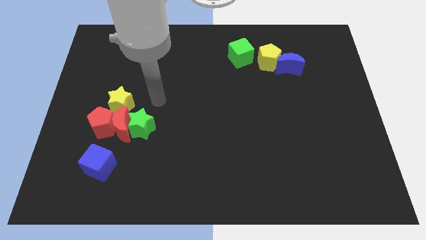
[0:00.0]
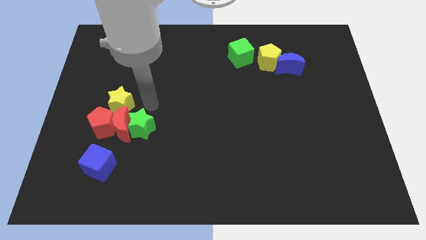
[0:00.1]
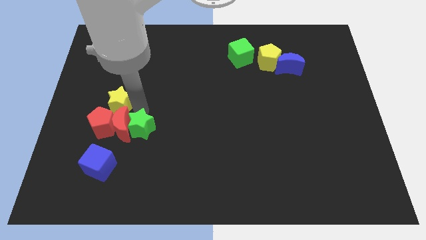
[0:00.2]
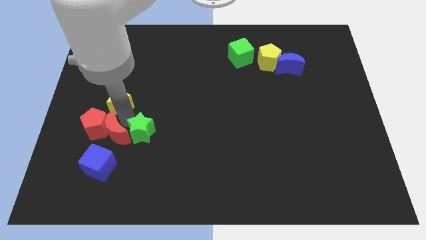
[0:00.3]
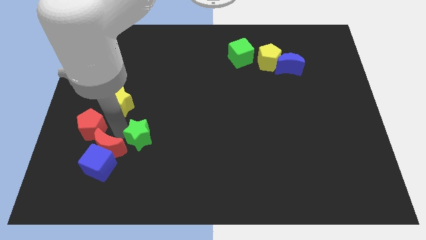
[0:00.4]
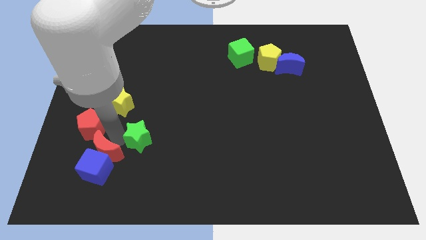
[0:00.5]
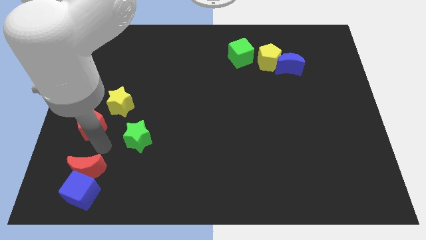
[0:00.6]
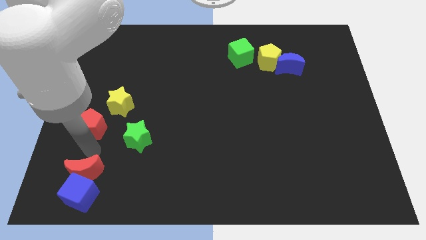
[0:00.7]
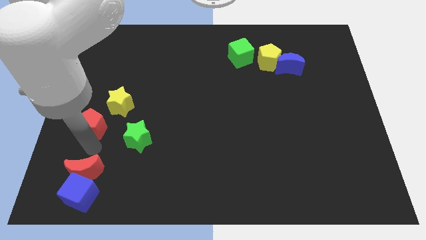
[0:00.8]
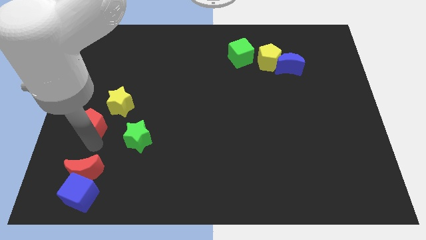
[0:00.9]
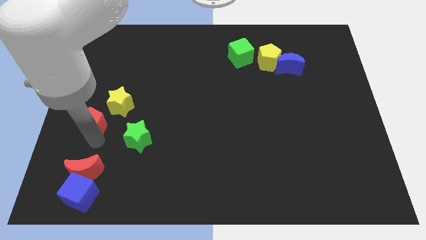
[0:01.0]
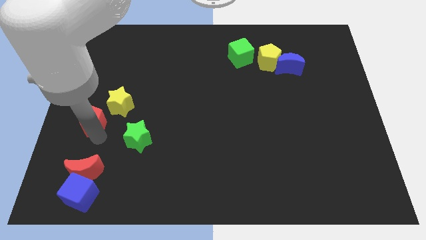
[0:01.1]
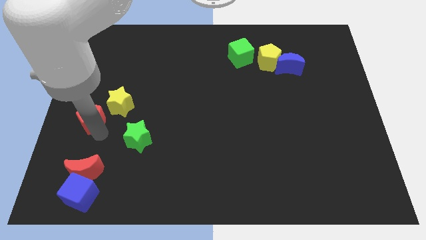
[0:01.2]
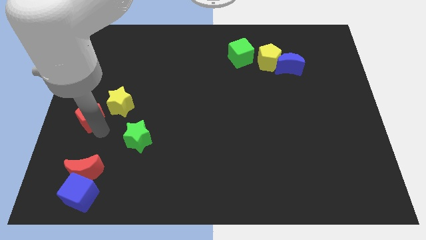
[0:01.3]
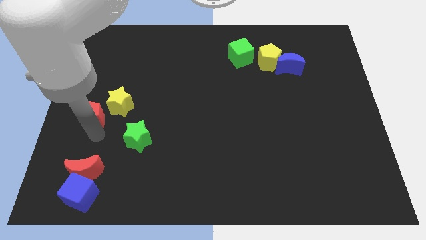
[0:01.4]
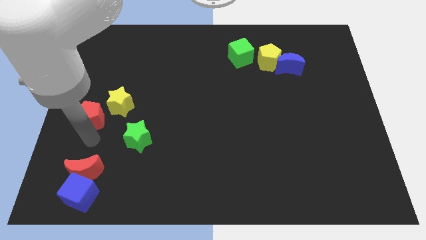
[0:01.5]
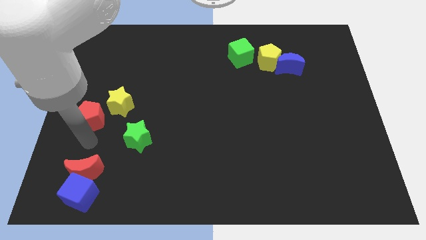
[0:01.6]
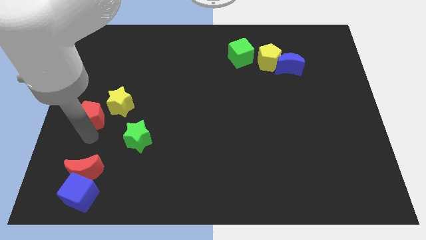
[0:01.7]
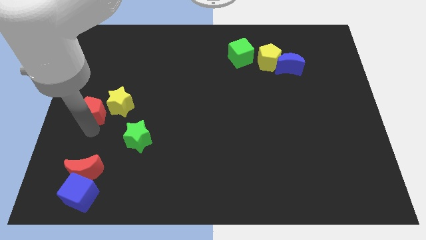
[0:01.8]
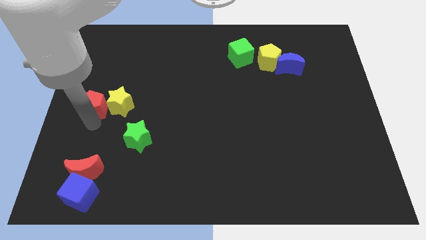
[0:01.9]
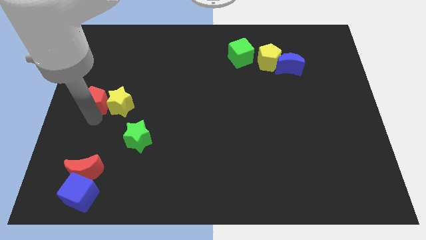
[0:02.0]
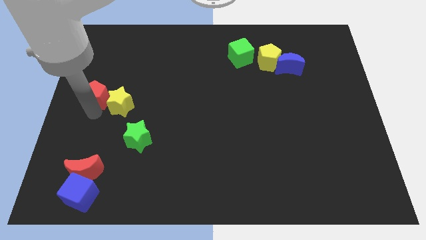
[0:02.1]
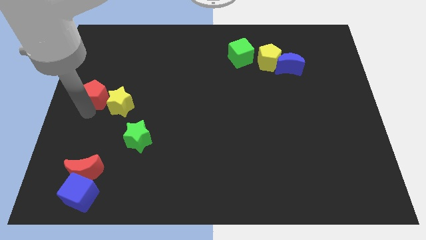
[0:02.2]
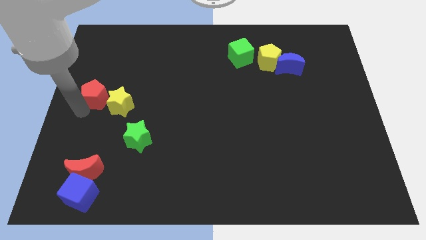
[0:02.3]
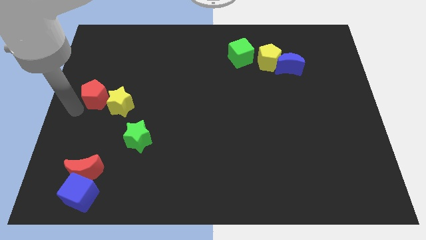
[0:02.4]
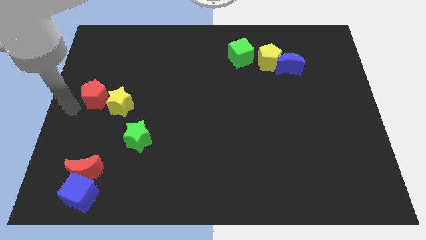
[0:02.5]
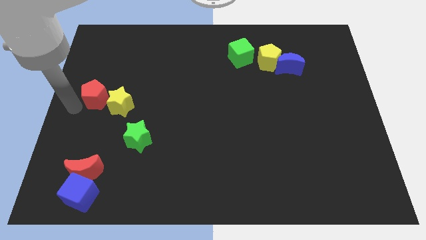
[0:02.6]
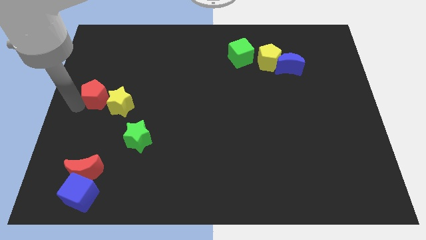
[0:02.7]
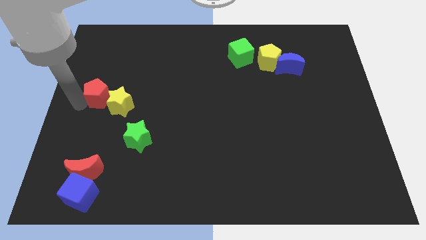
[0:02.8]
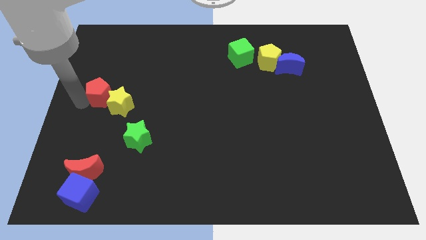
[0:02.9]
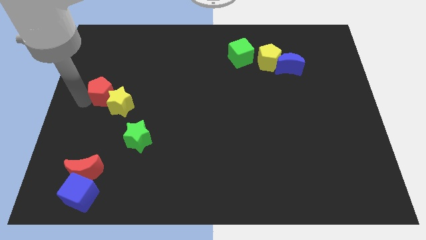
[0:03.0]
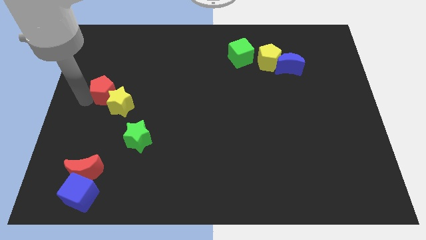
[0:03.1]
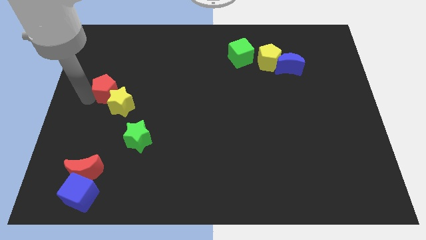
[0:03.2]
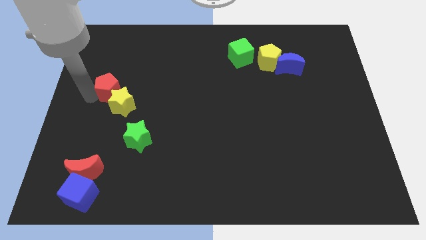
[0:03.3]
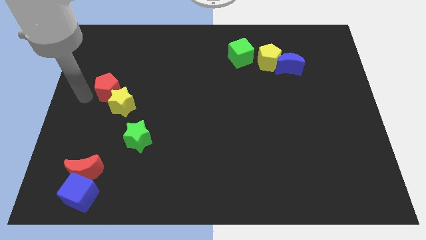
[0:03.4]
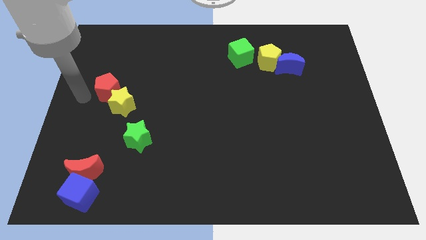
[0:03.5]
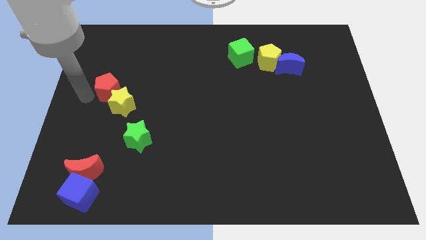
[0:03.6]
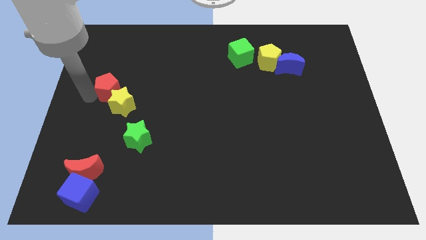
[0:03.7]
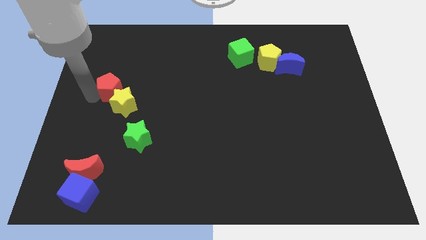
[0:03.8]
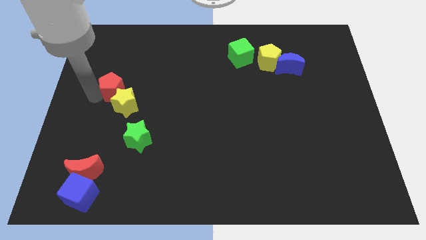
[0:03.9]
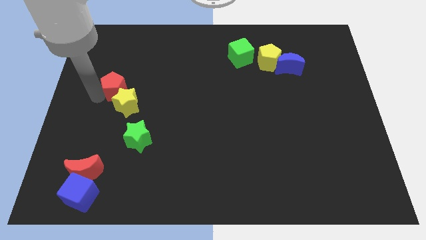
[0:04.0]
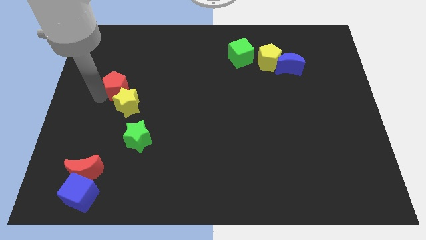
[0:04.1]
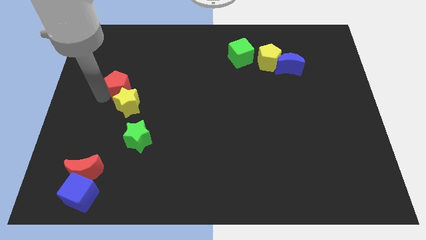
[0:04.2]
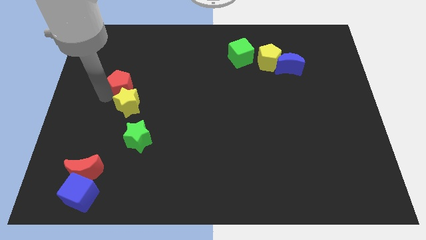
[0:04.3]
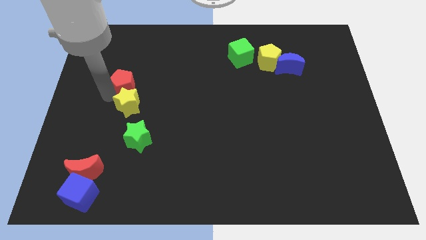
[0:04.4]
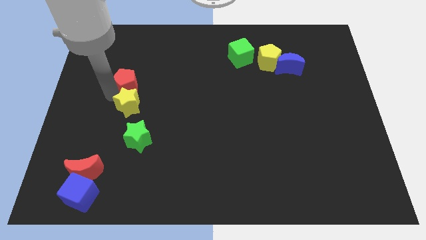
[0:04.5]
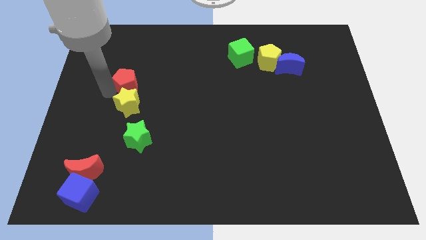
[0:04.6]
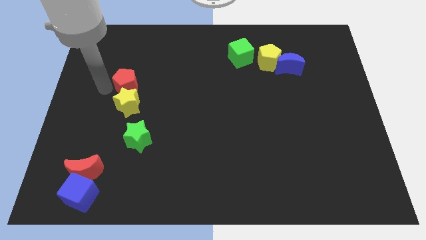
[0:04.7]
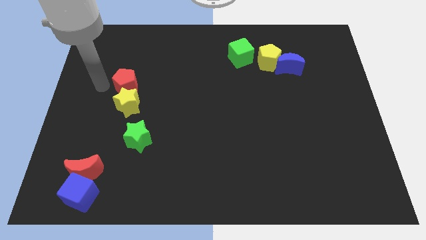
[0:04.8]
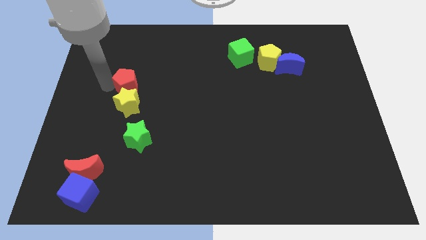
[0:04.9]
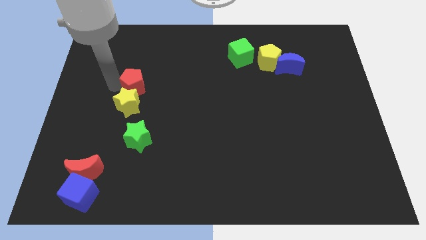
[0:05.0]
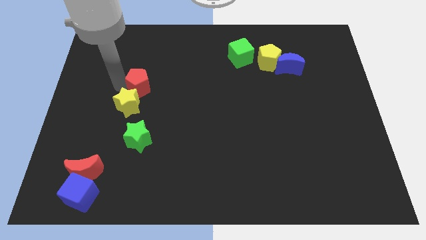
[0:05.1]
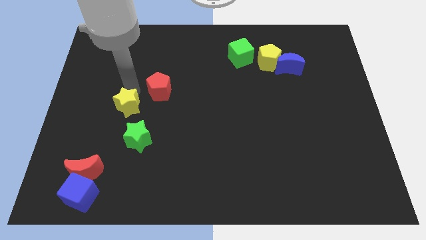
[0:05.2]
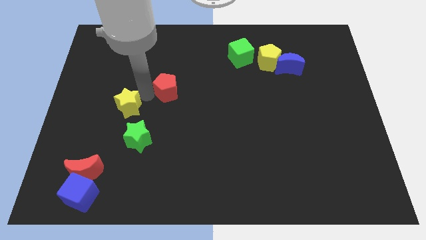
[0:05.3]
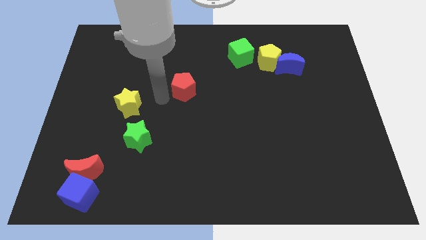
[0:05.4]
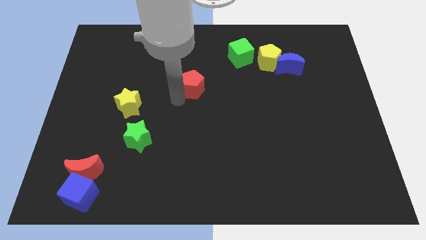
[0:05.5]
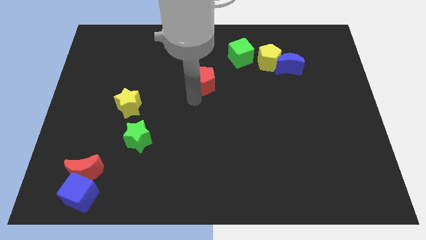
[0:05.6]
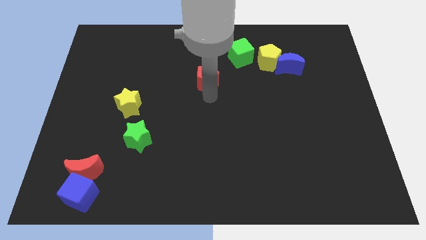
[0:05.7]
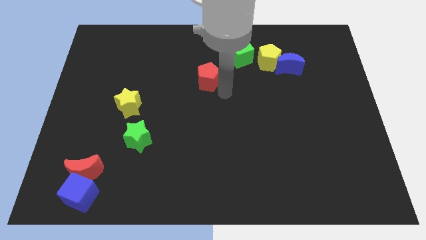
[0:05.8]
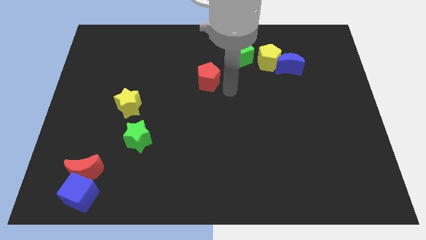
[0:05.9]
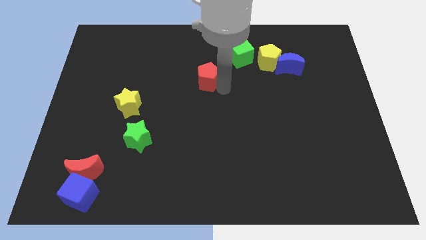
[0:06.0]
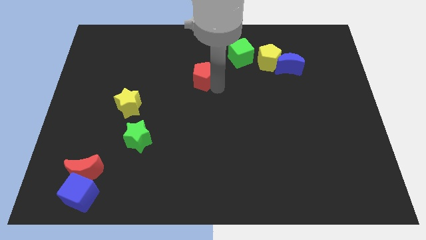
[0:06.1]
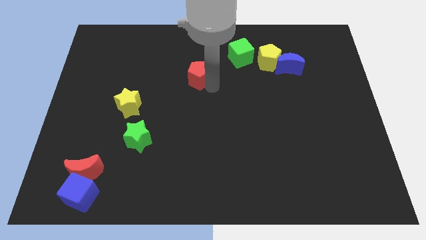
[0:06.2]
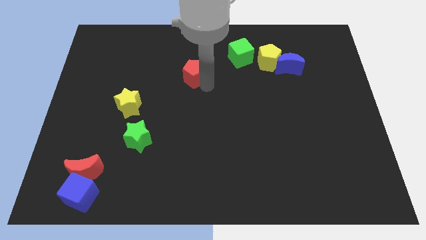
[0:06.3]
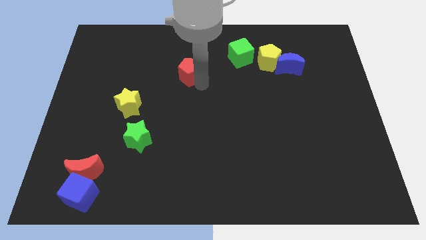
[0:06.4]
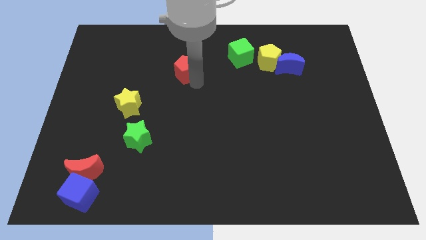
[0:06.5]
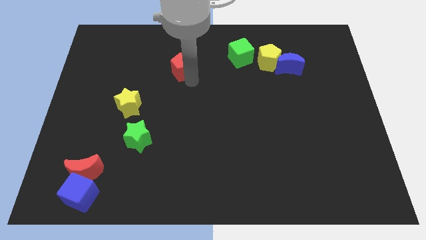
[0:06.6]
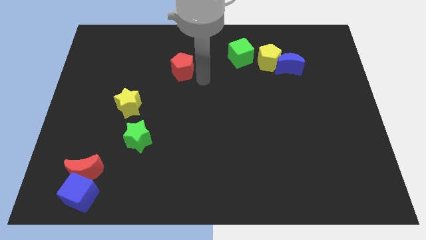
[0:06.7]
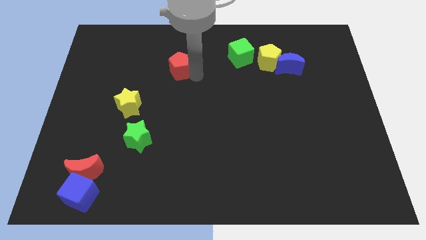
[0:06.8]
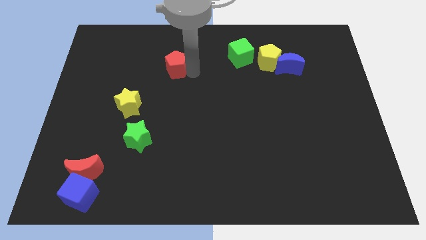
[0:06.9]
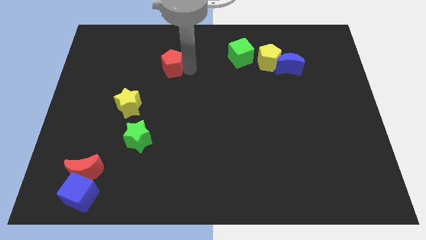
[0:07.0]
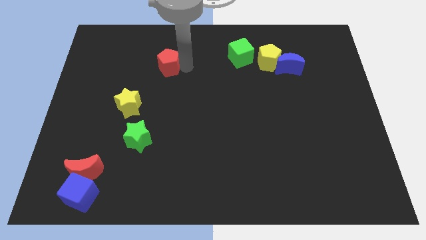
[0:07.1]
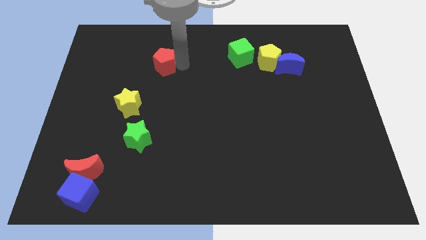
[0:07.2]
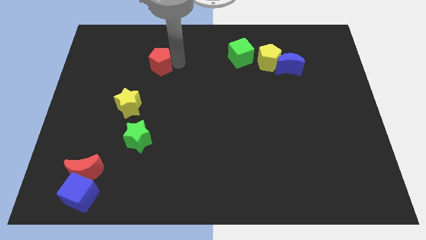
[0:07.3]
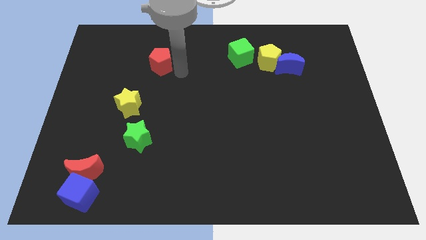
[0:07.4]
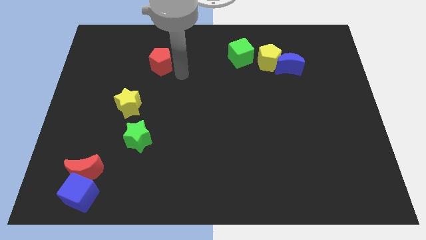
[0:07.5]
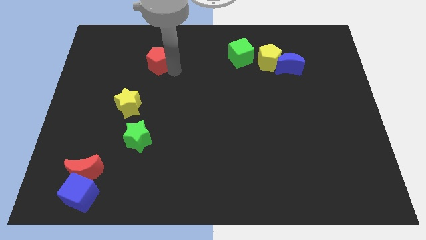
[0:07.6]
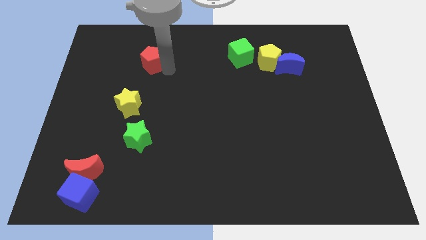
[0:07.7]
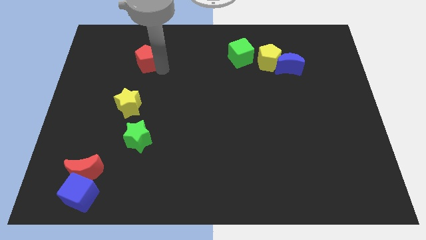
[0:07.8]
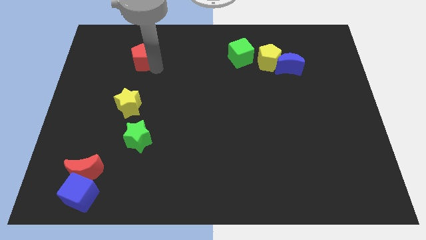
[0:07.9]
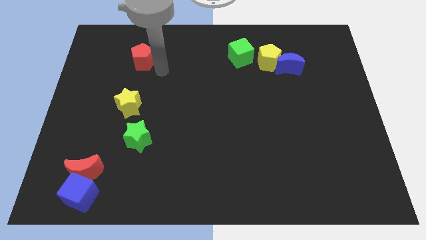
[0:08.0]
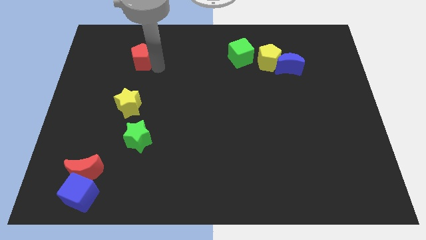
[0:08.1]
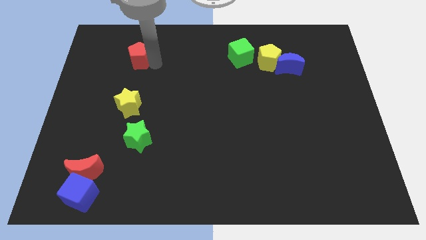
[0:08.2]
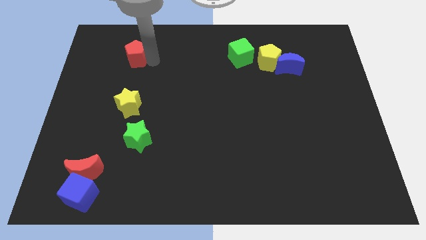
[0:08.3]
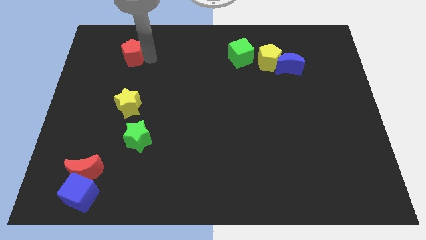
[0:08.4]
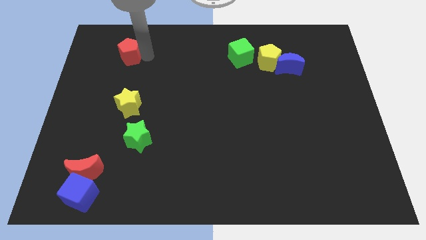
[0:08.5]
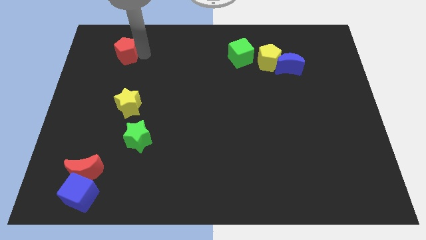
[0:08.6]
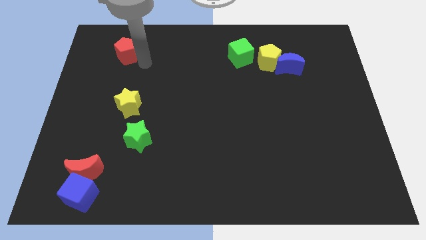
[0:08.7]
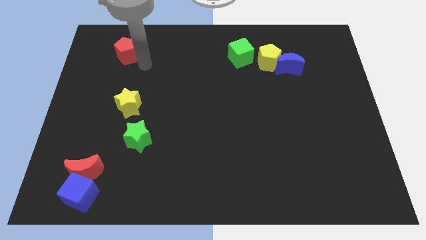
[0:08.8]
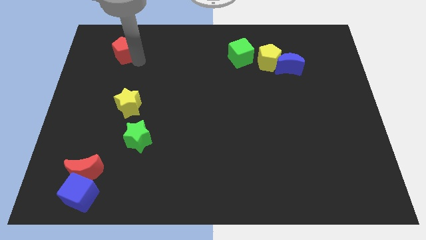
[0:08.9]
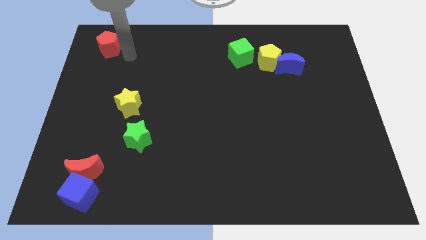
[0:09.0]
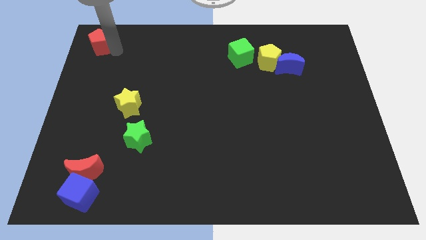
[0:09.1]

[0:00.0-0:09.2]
push the red pentagon to the upper left corner
